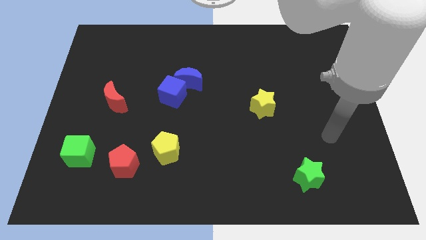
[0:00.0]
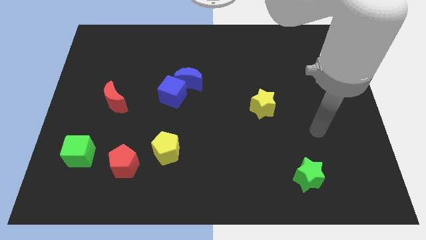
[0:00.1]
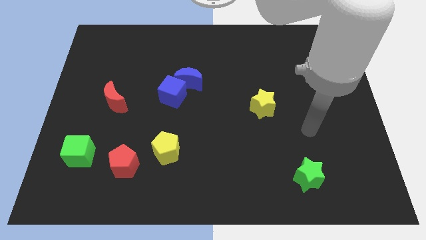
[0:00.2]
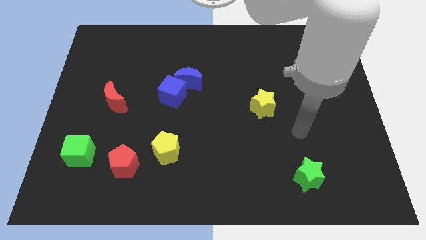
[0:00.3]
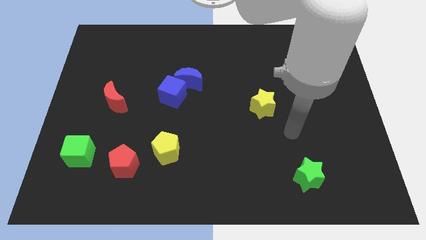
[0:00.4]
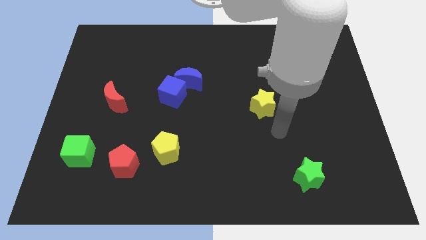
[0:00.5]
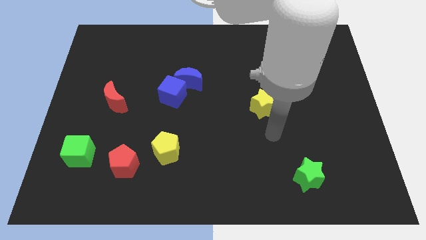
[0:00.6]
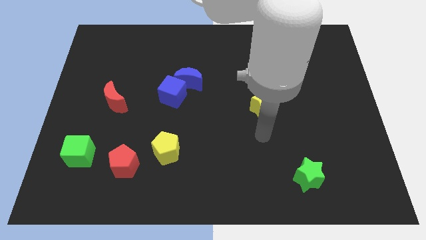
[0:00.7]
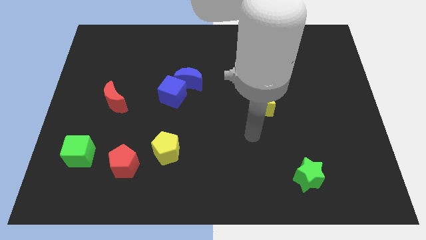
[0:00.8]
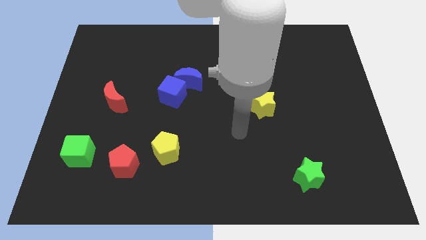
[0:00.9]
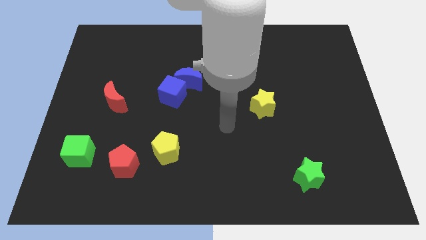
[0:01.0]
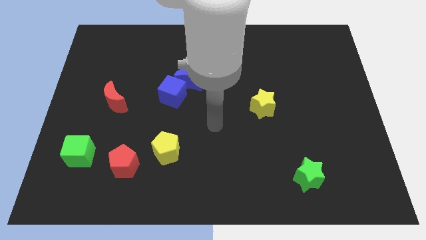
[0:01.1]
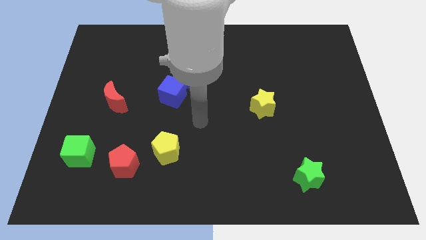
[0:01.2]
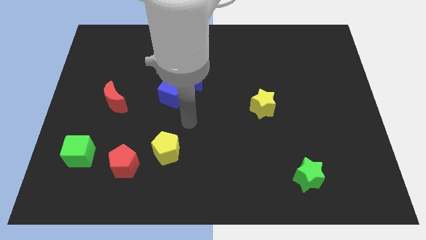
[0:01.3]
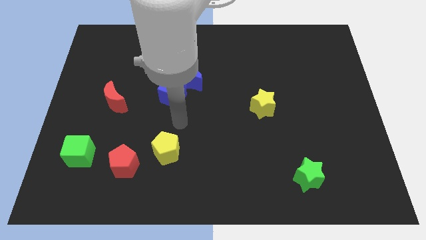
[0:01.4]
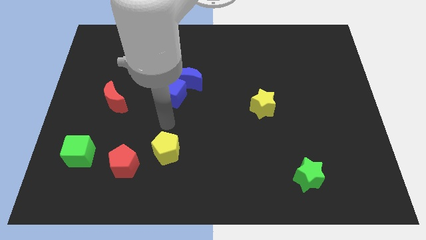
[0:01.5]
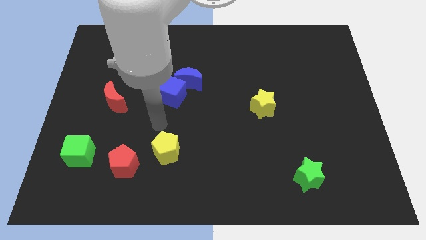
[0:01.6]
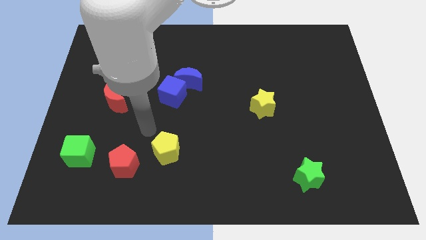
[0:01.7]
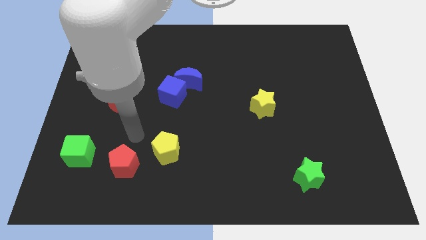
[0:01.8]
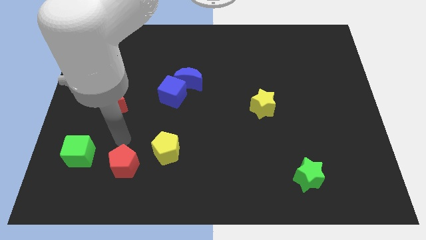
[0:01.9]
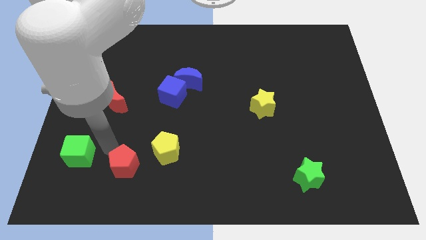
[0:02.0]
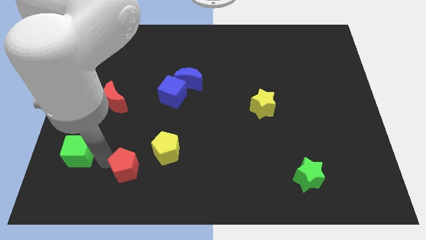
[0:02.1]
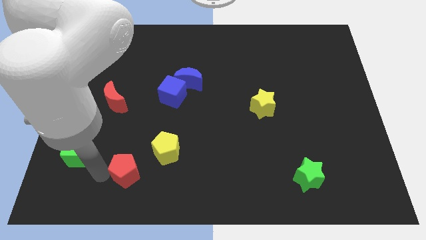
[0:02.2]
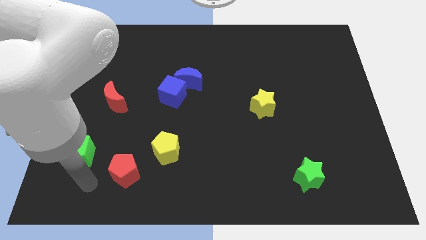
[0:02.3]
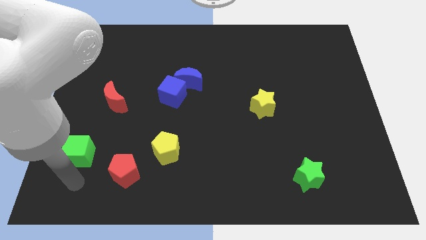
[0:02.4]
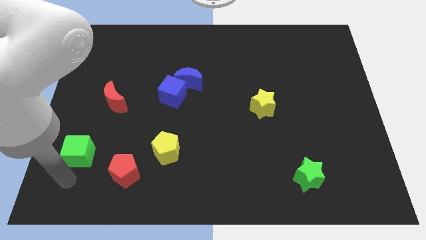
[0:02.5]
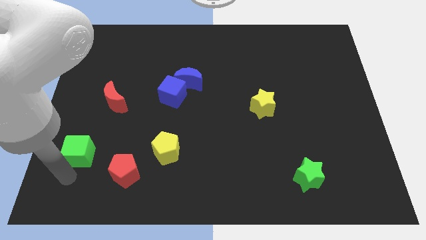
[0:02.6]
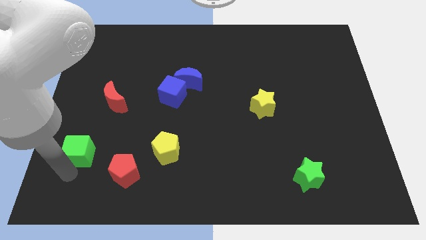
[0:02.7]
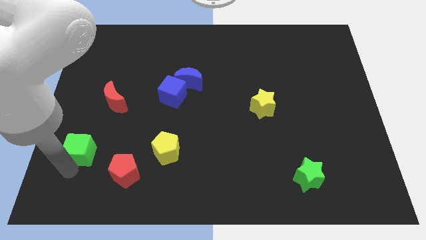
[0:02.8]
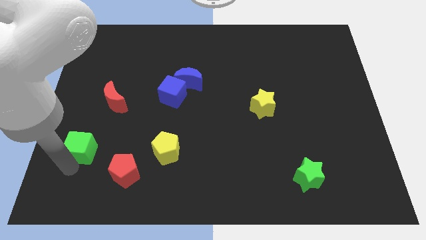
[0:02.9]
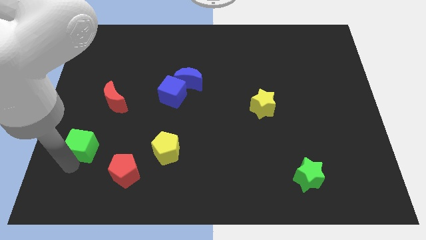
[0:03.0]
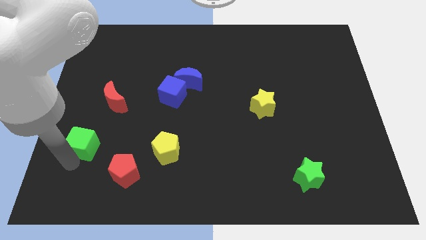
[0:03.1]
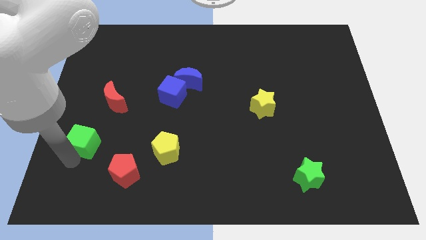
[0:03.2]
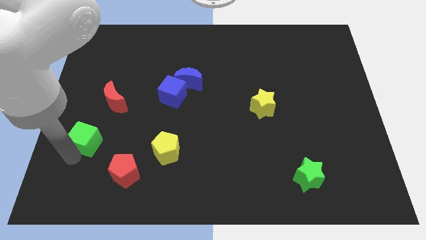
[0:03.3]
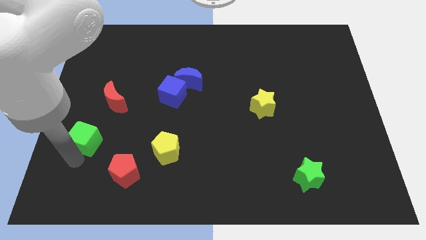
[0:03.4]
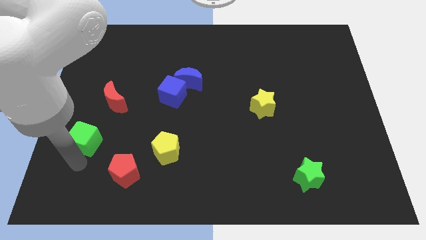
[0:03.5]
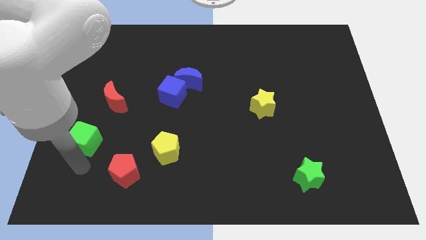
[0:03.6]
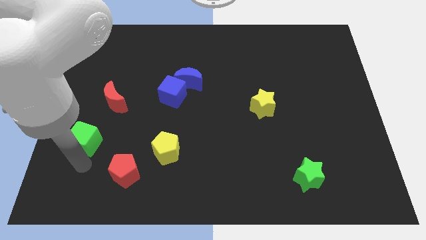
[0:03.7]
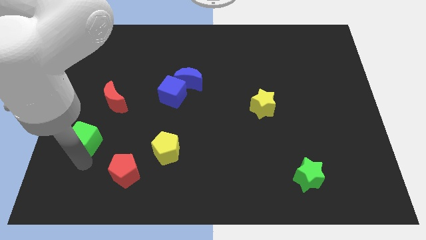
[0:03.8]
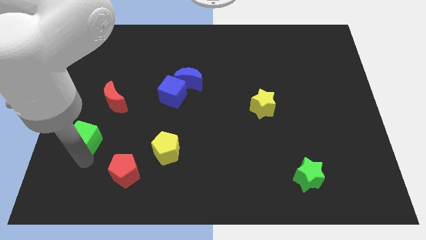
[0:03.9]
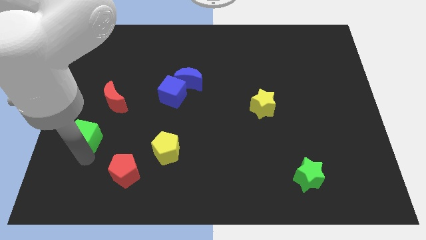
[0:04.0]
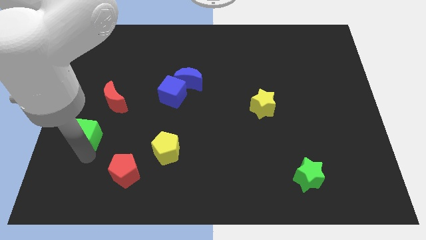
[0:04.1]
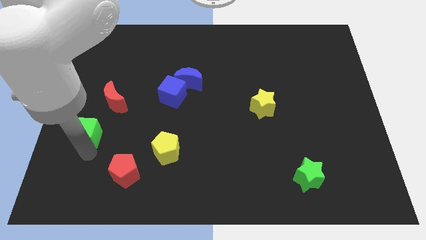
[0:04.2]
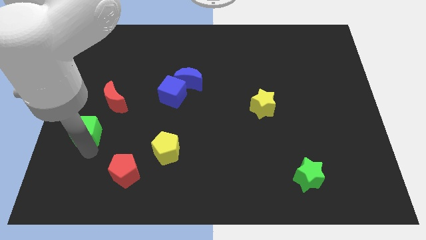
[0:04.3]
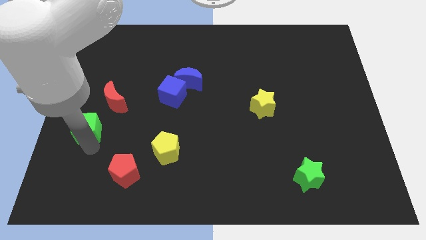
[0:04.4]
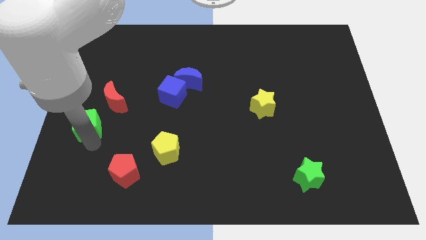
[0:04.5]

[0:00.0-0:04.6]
slightly move the green cube up

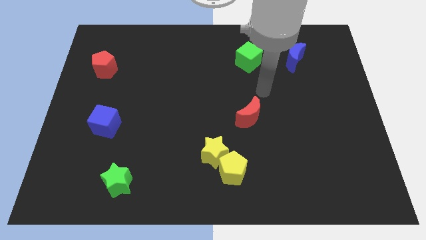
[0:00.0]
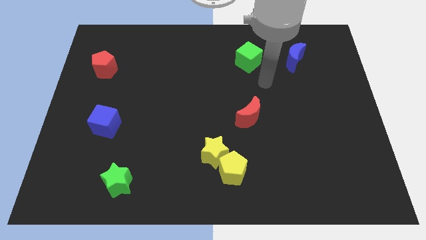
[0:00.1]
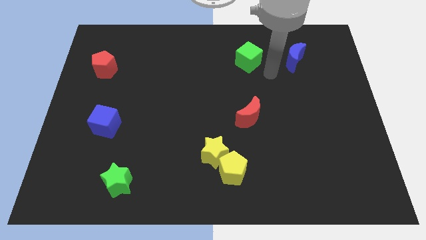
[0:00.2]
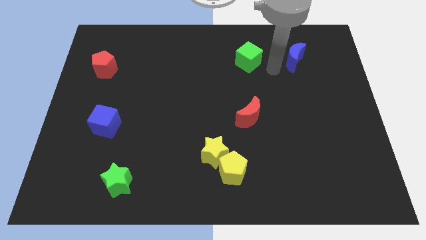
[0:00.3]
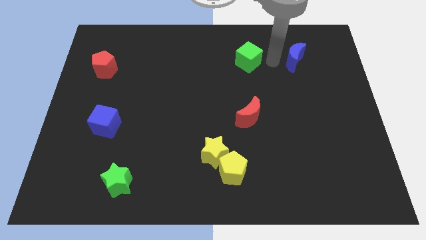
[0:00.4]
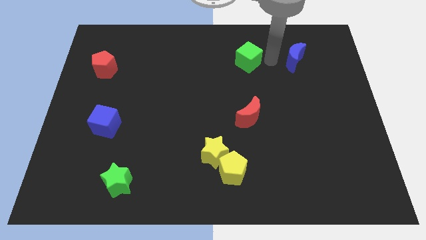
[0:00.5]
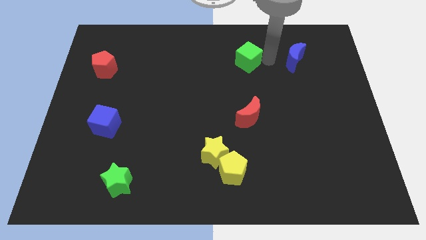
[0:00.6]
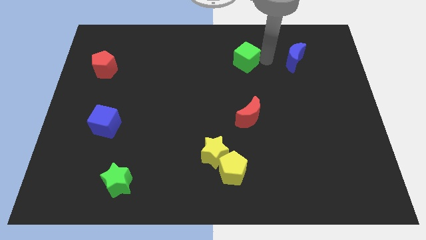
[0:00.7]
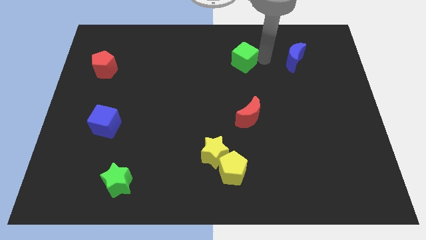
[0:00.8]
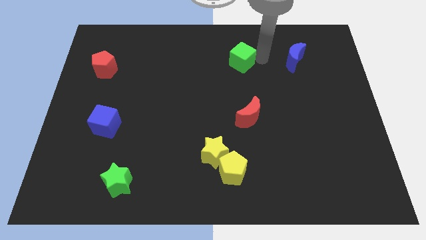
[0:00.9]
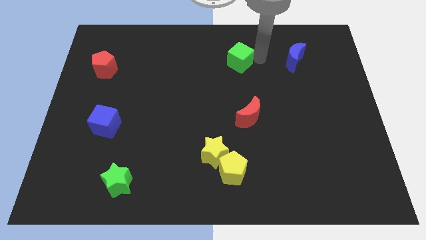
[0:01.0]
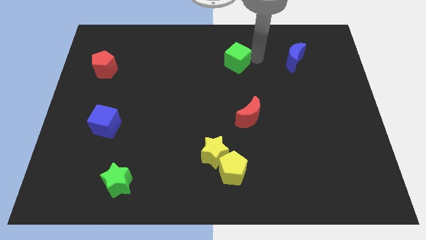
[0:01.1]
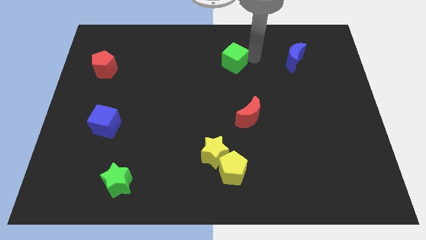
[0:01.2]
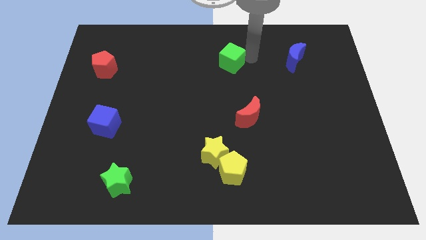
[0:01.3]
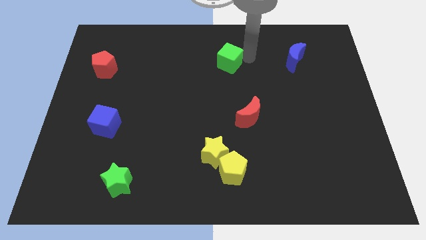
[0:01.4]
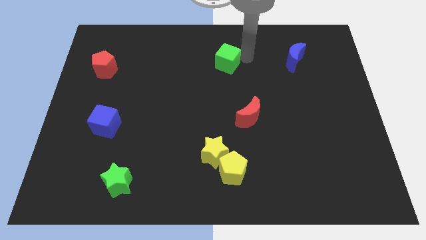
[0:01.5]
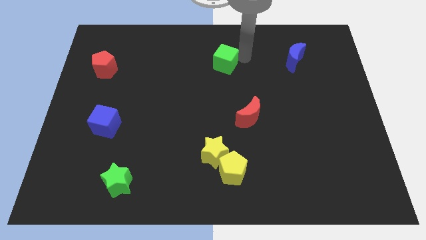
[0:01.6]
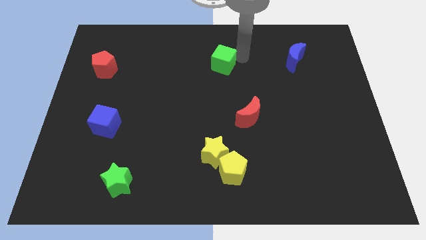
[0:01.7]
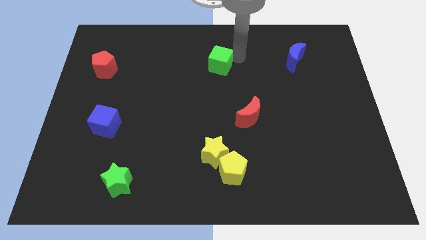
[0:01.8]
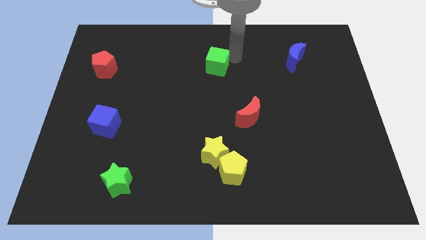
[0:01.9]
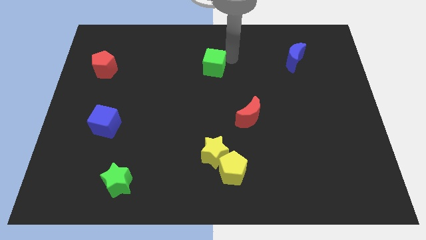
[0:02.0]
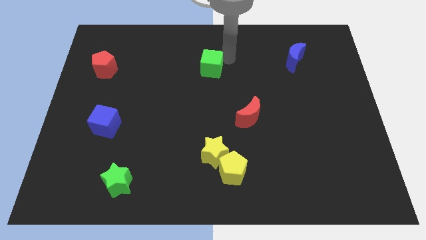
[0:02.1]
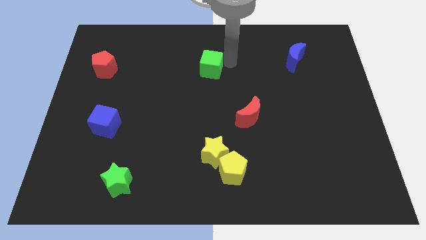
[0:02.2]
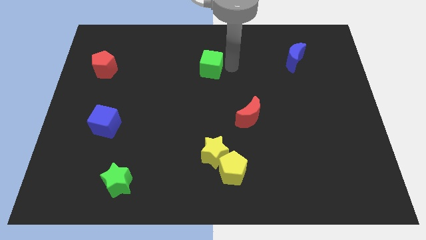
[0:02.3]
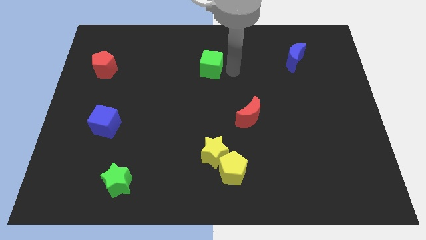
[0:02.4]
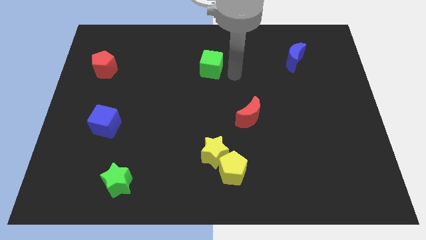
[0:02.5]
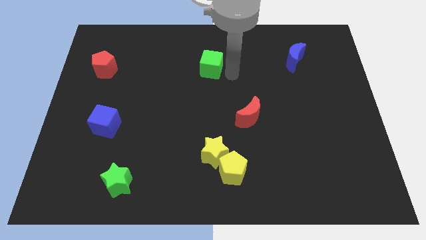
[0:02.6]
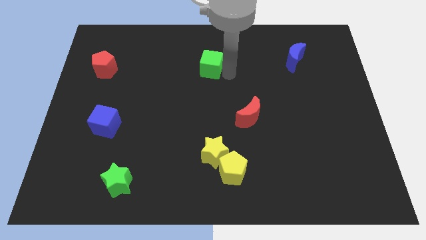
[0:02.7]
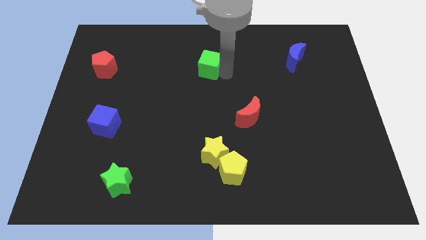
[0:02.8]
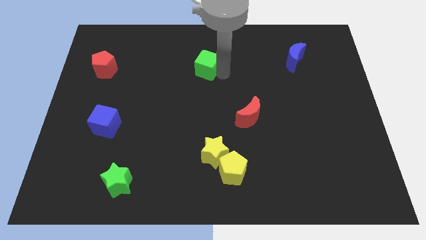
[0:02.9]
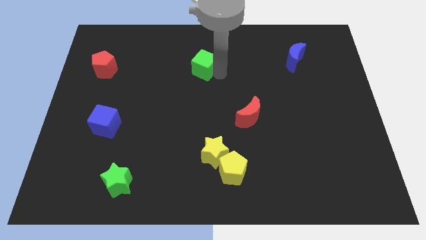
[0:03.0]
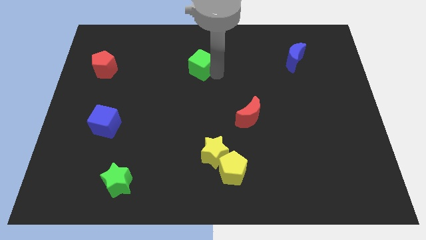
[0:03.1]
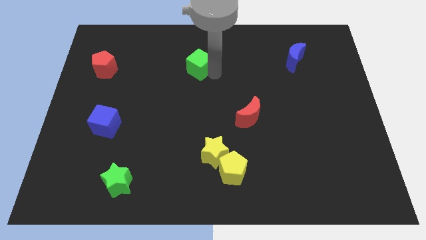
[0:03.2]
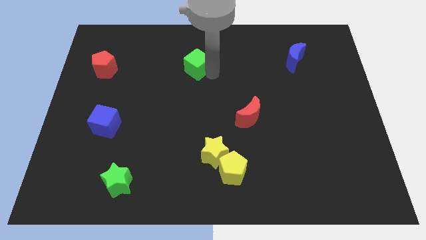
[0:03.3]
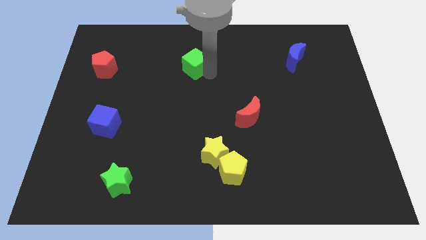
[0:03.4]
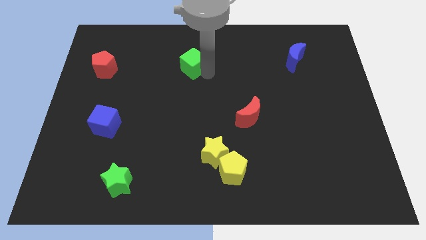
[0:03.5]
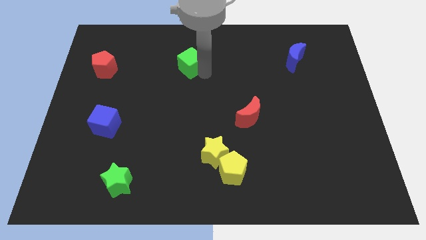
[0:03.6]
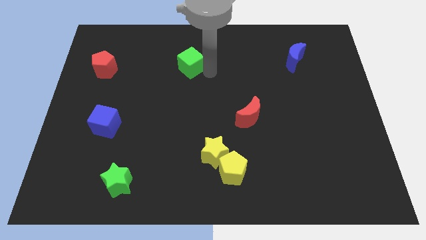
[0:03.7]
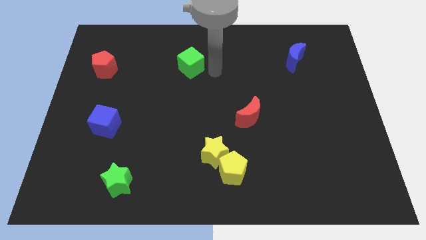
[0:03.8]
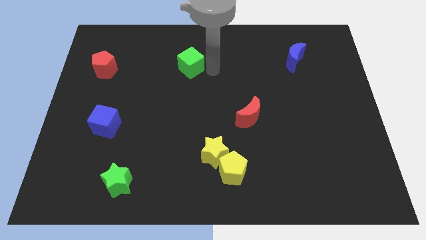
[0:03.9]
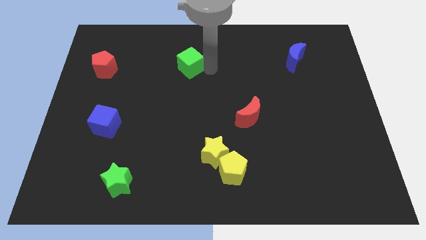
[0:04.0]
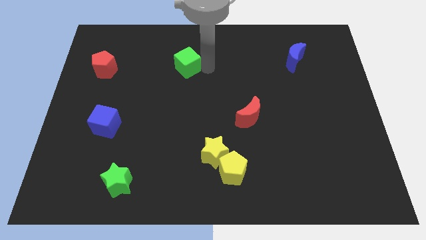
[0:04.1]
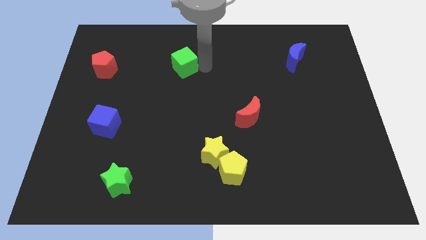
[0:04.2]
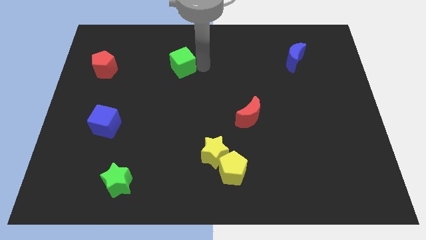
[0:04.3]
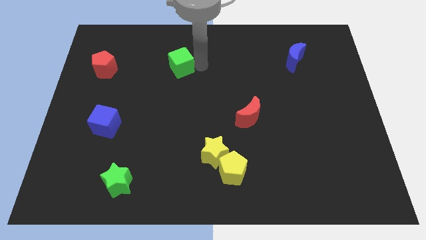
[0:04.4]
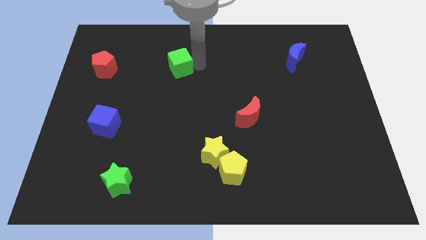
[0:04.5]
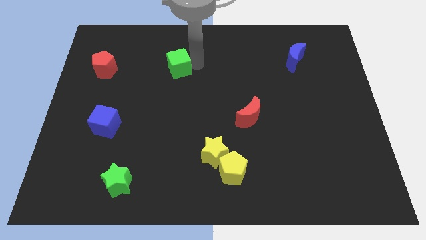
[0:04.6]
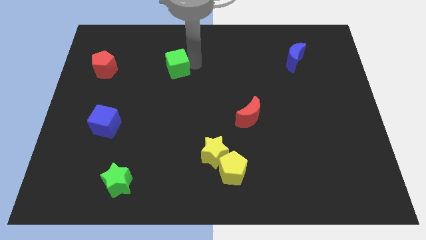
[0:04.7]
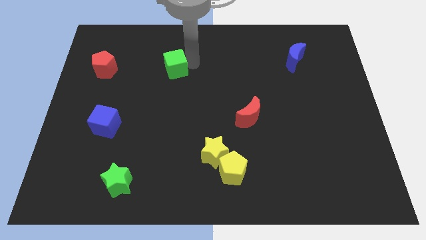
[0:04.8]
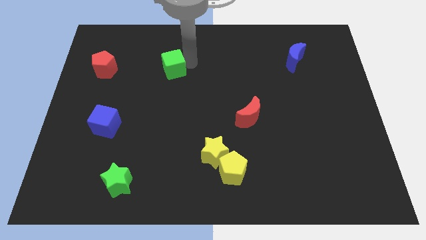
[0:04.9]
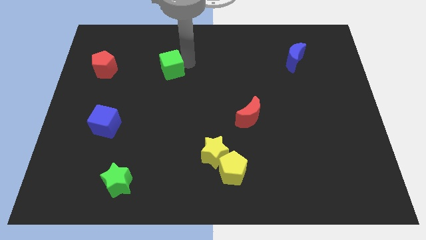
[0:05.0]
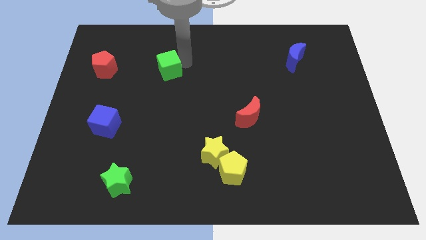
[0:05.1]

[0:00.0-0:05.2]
move the green cube to the left
